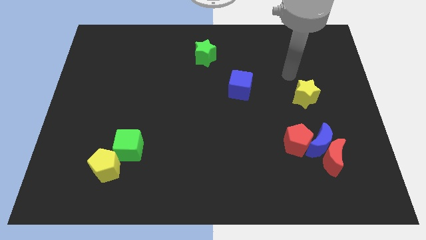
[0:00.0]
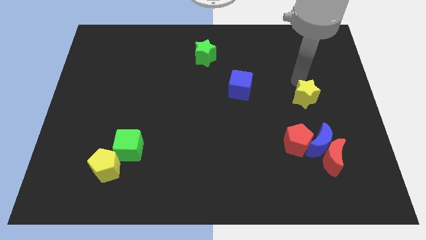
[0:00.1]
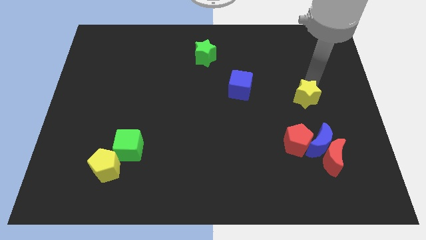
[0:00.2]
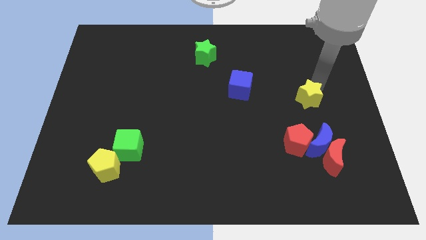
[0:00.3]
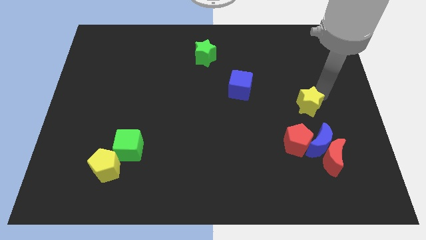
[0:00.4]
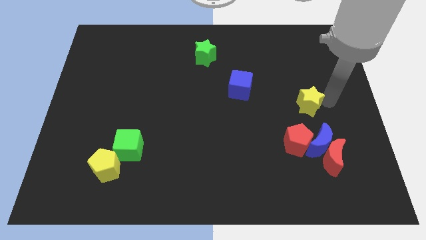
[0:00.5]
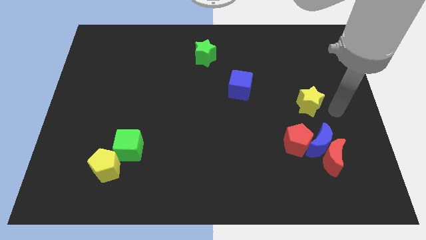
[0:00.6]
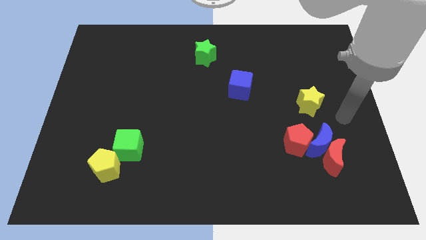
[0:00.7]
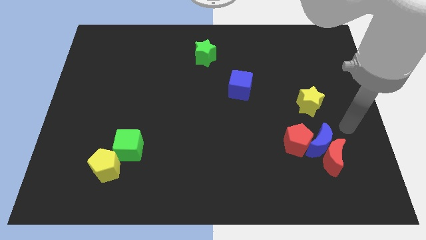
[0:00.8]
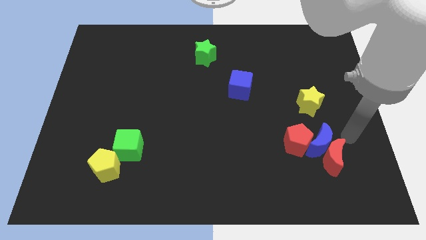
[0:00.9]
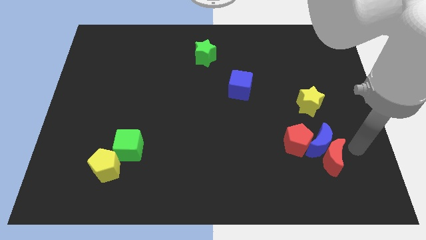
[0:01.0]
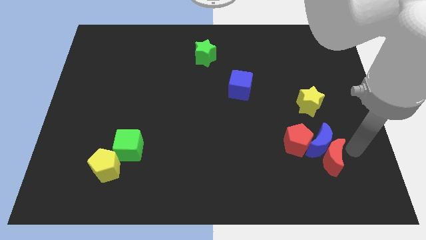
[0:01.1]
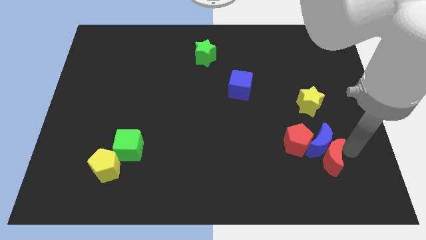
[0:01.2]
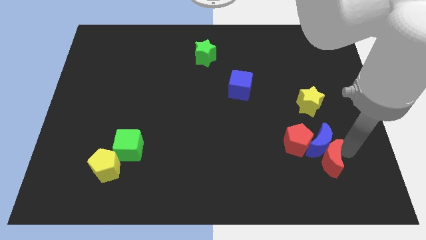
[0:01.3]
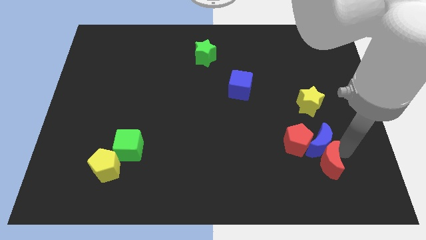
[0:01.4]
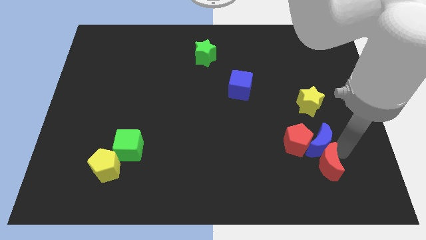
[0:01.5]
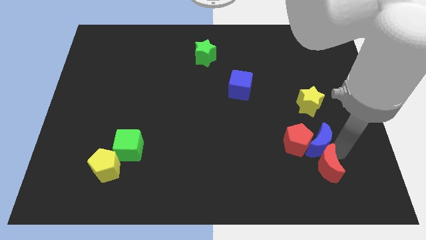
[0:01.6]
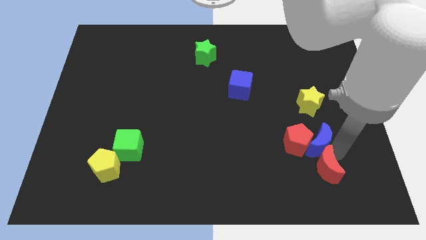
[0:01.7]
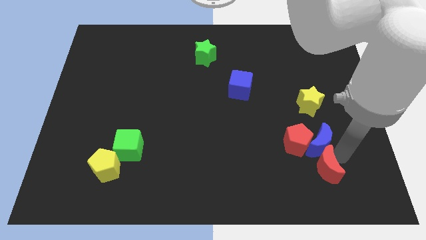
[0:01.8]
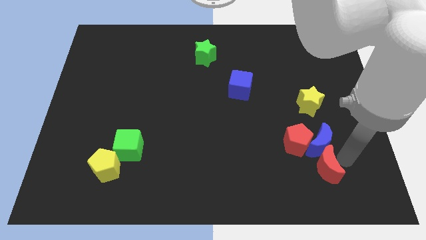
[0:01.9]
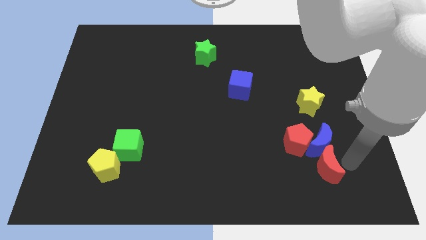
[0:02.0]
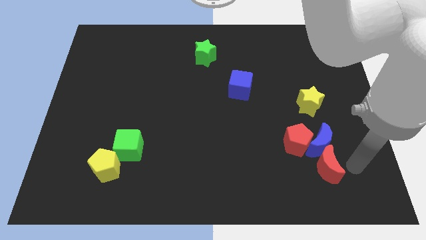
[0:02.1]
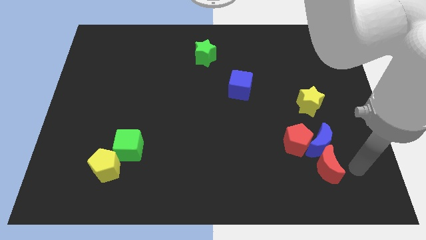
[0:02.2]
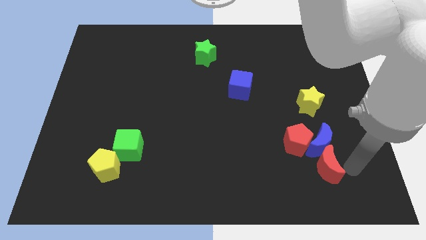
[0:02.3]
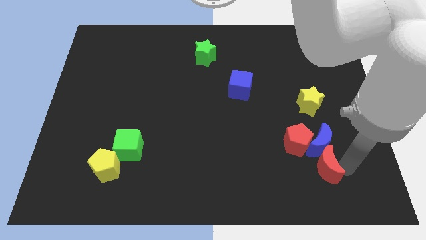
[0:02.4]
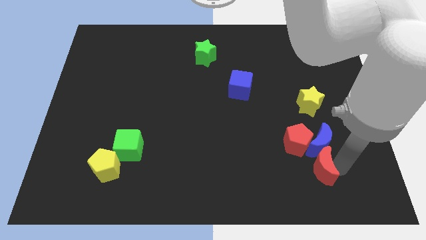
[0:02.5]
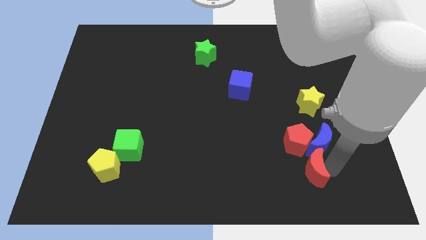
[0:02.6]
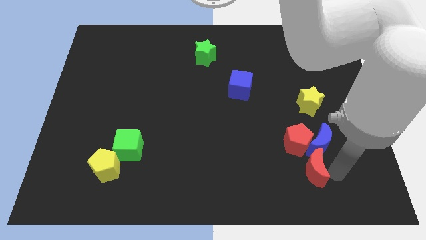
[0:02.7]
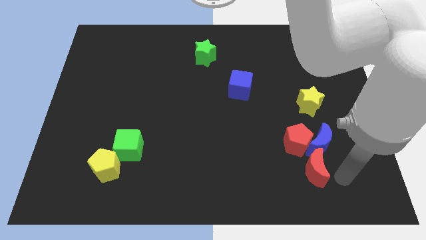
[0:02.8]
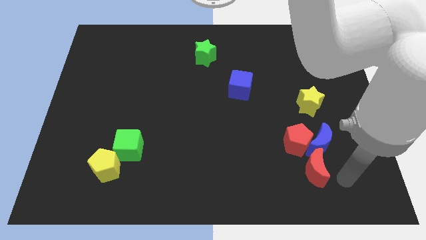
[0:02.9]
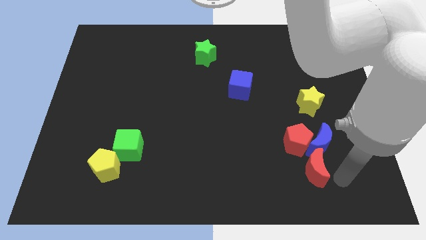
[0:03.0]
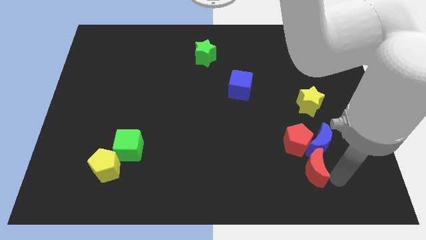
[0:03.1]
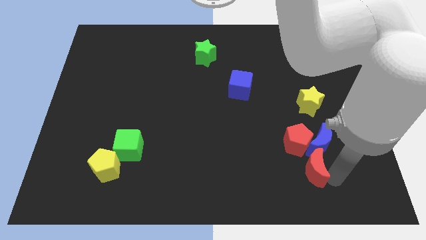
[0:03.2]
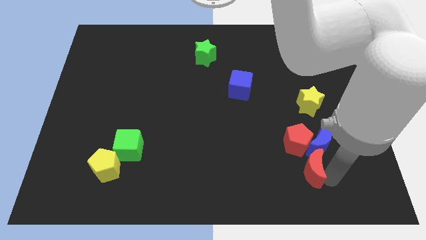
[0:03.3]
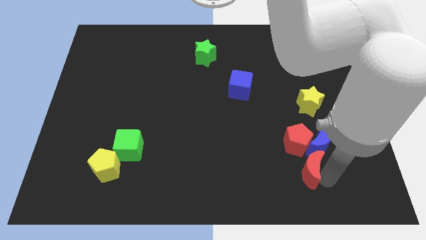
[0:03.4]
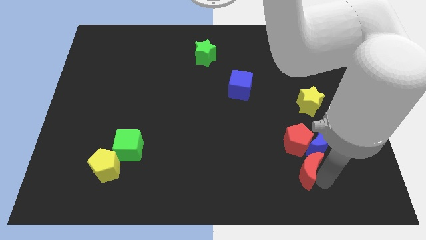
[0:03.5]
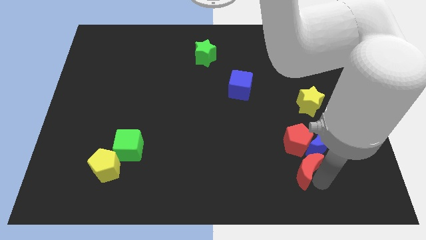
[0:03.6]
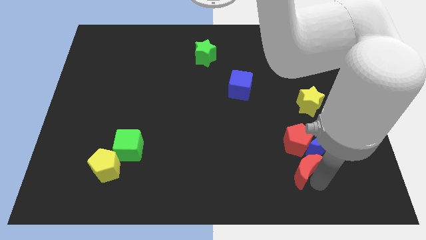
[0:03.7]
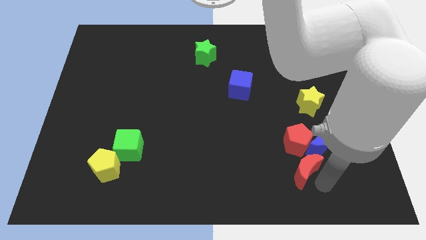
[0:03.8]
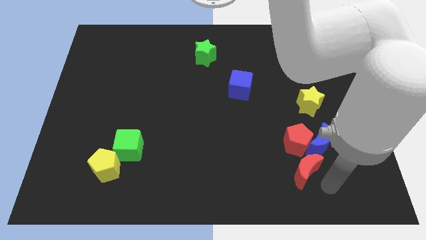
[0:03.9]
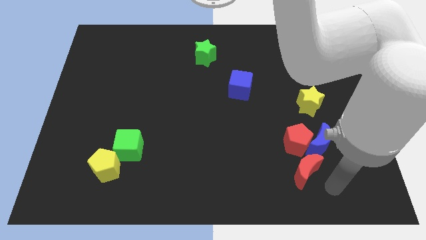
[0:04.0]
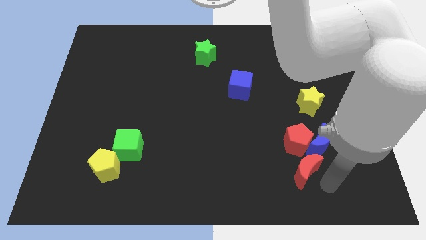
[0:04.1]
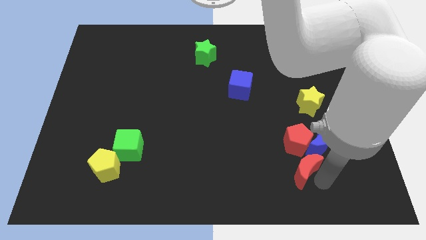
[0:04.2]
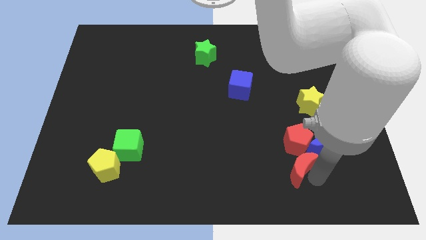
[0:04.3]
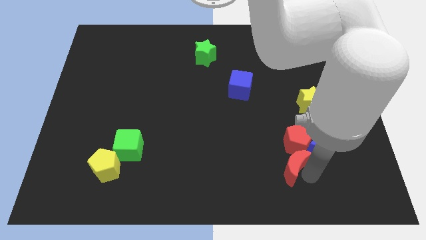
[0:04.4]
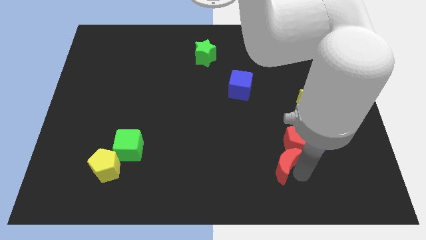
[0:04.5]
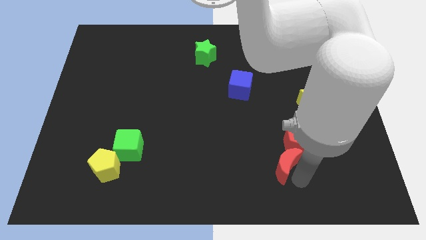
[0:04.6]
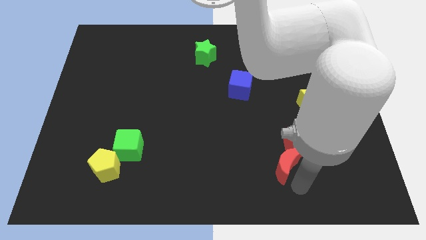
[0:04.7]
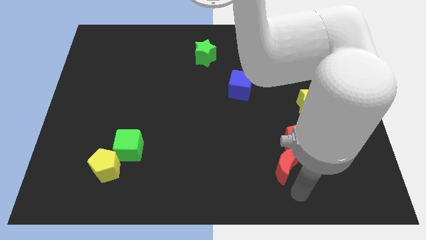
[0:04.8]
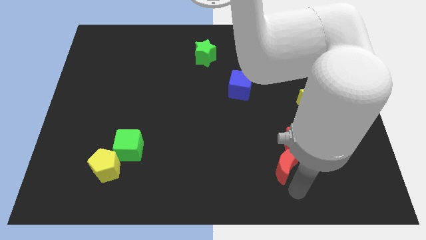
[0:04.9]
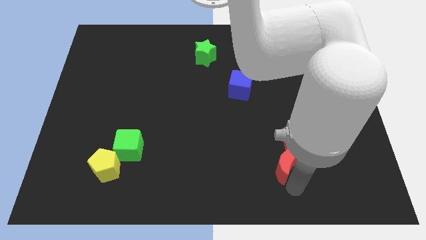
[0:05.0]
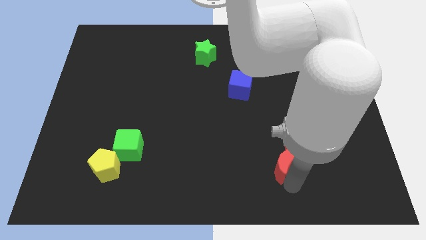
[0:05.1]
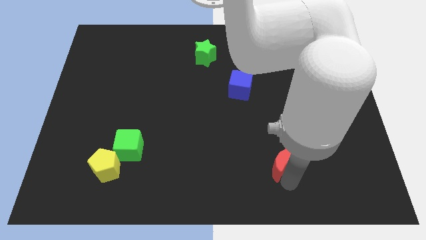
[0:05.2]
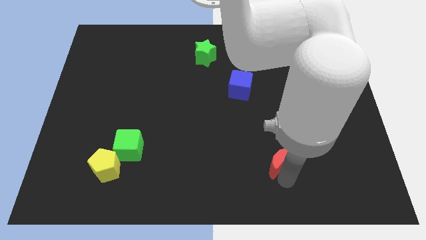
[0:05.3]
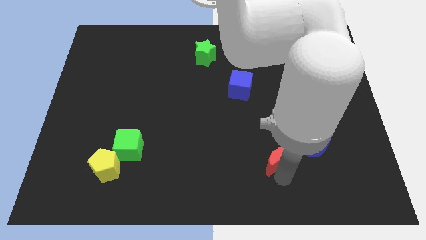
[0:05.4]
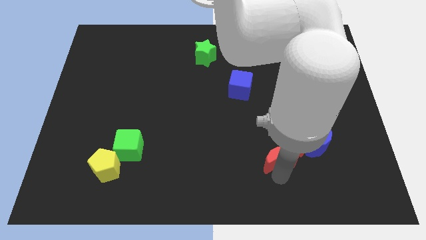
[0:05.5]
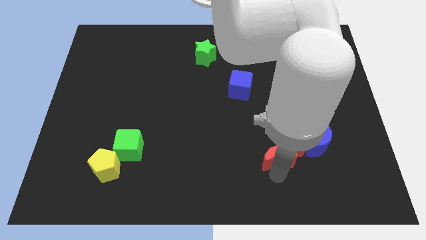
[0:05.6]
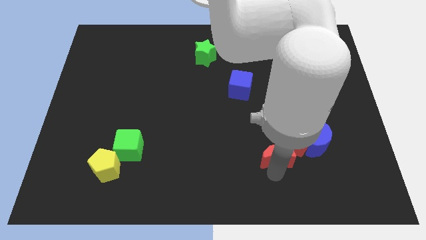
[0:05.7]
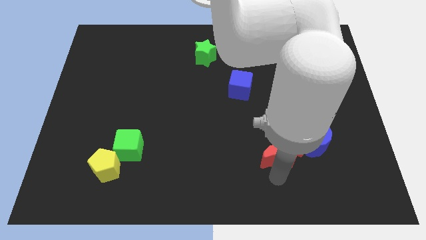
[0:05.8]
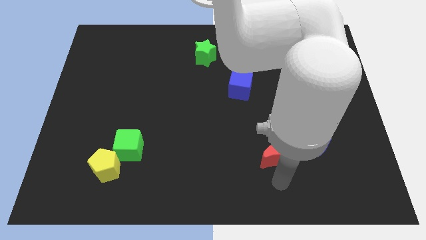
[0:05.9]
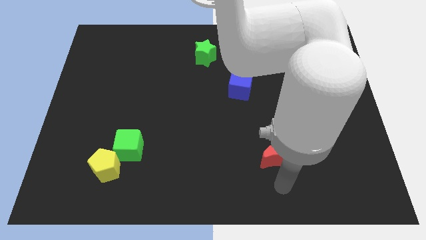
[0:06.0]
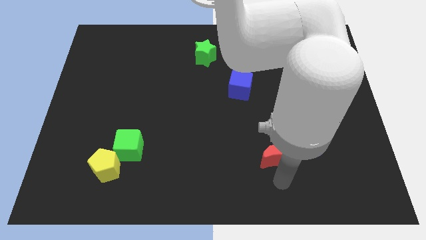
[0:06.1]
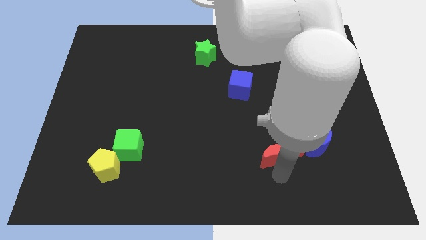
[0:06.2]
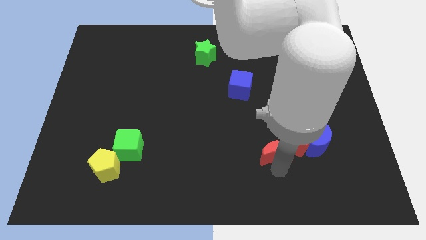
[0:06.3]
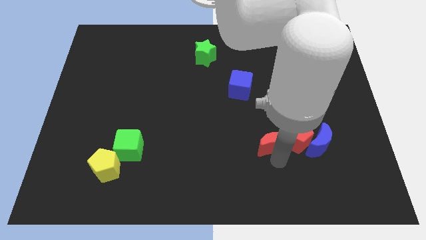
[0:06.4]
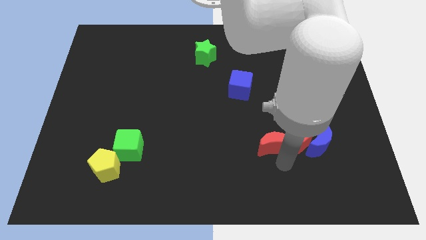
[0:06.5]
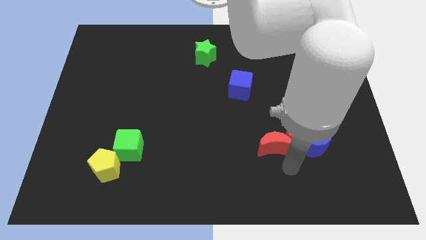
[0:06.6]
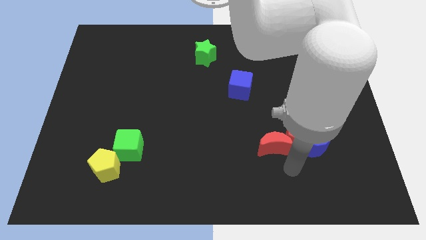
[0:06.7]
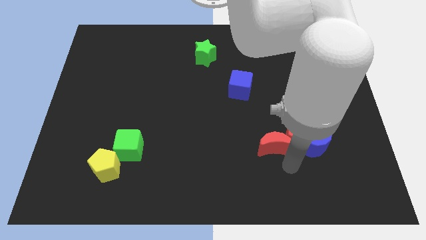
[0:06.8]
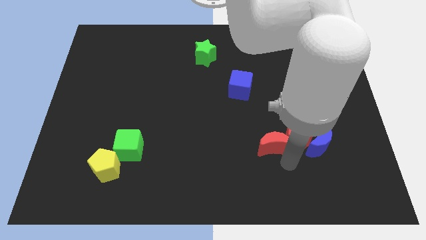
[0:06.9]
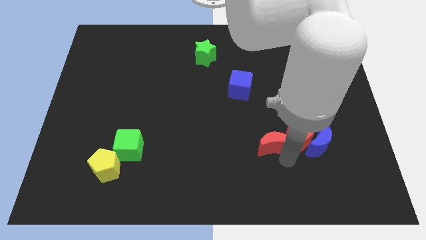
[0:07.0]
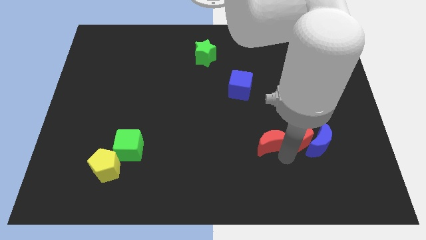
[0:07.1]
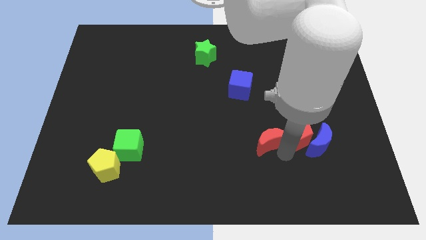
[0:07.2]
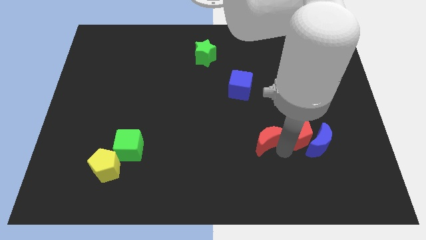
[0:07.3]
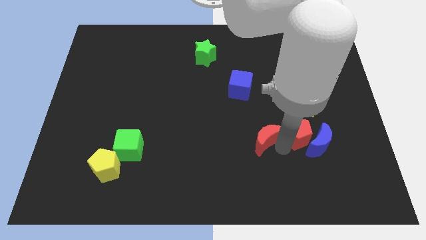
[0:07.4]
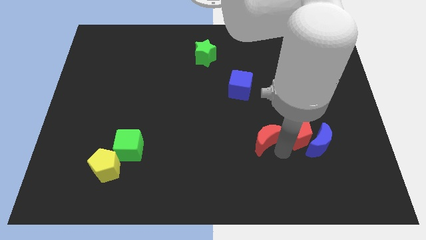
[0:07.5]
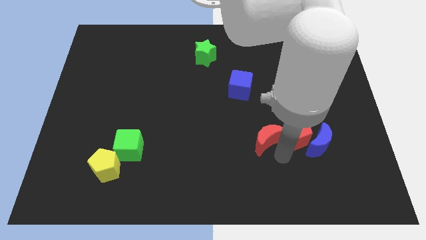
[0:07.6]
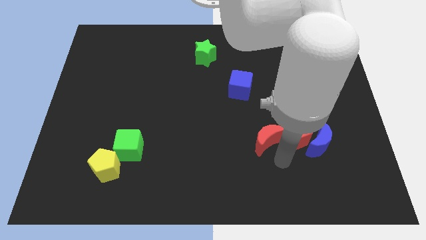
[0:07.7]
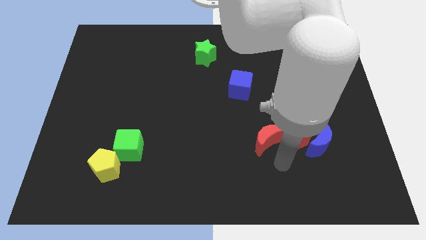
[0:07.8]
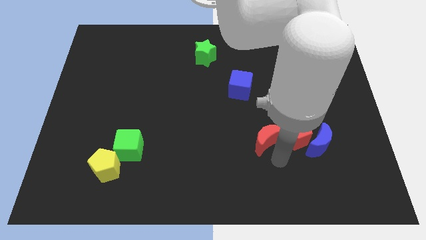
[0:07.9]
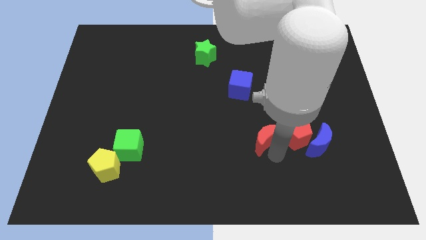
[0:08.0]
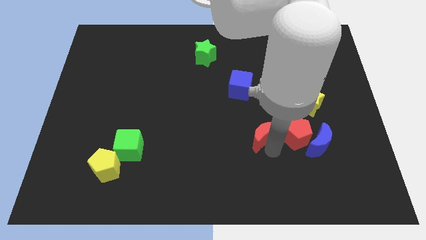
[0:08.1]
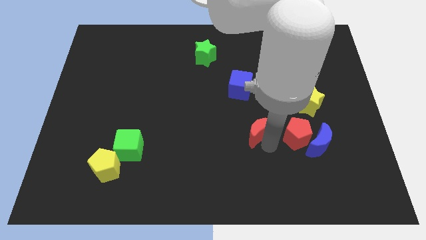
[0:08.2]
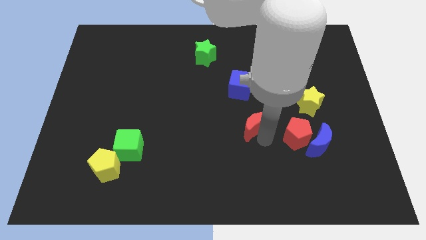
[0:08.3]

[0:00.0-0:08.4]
slide the red moon to the middle
